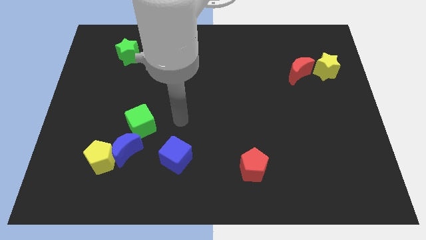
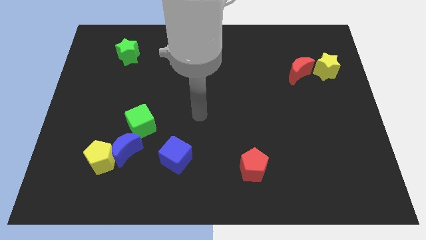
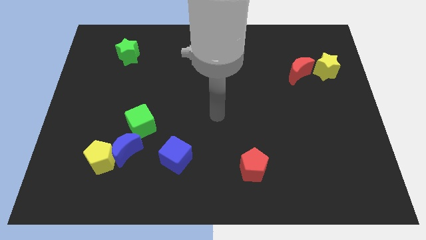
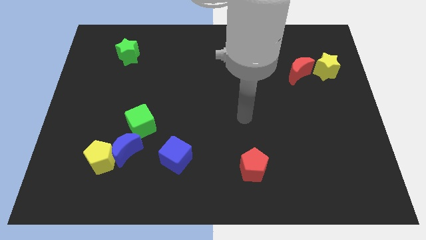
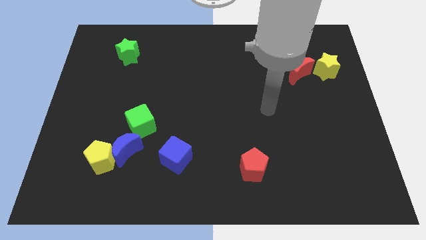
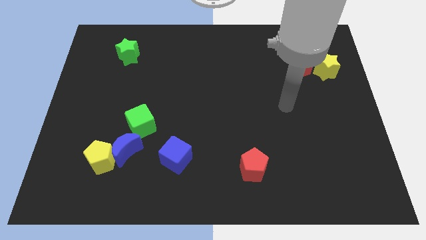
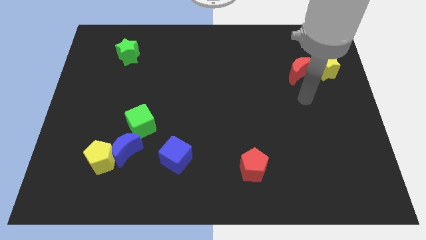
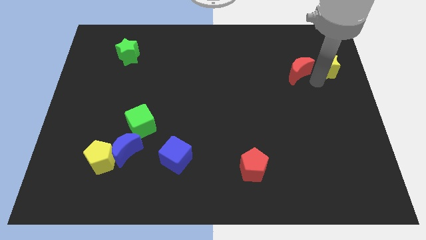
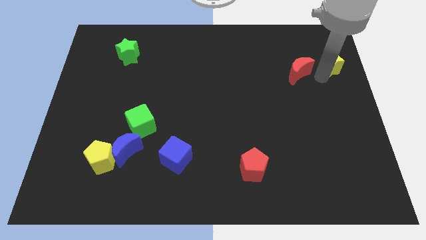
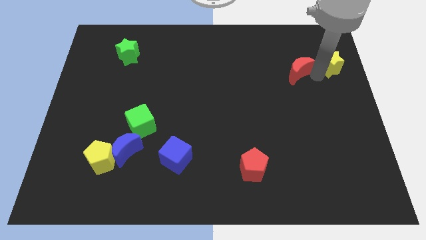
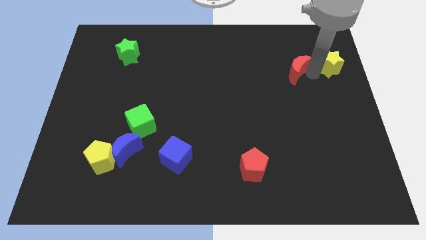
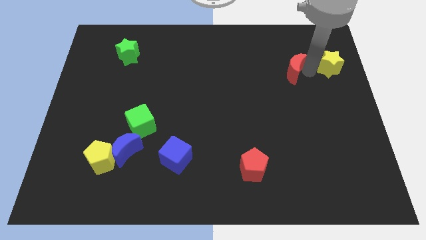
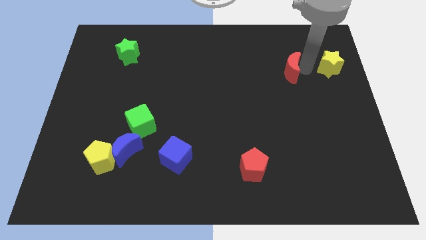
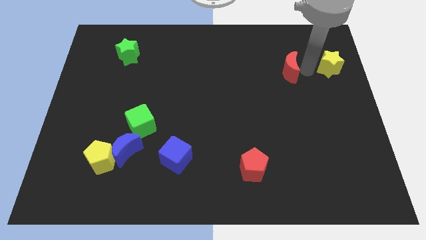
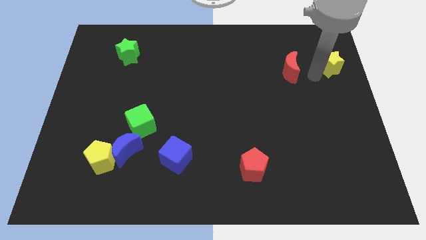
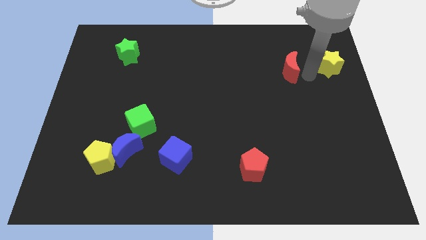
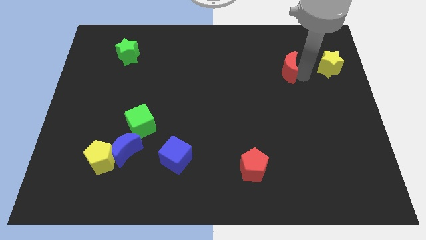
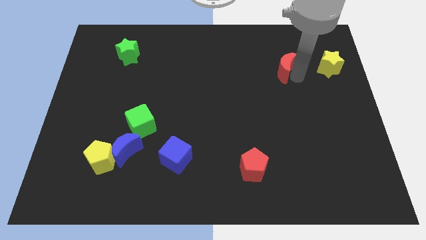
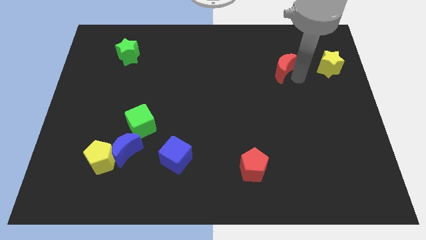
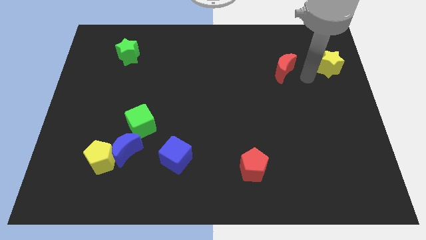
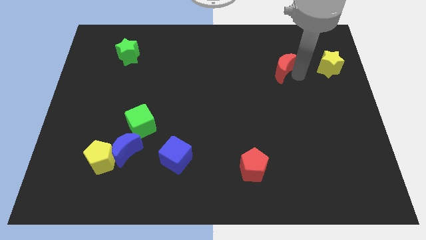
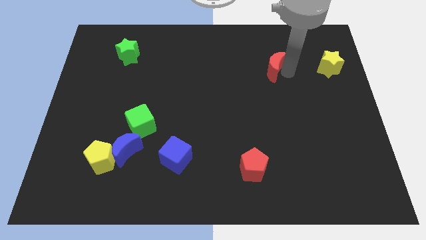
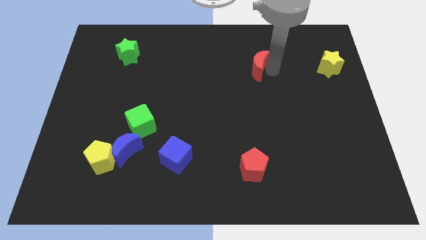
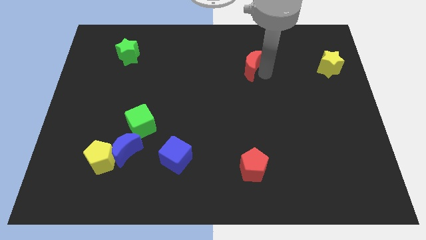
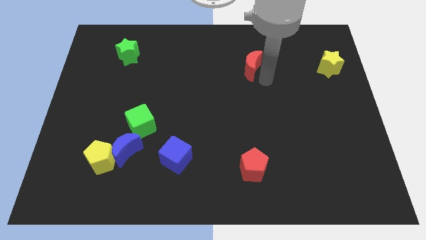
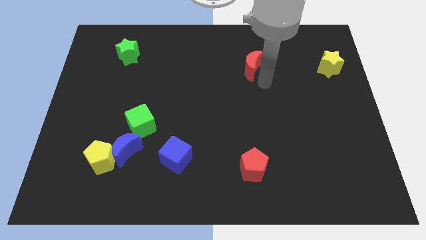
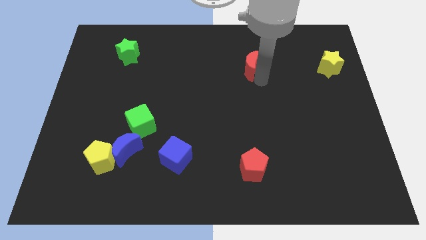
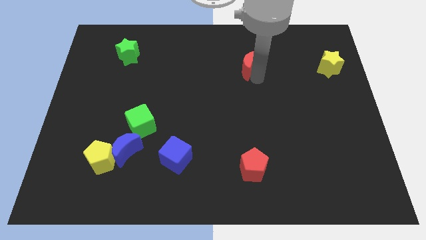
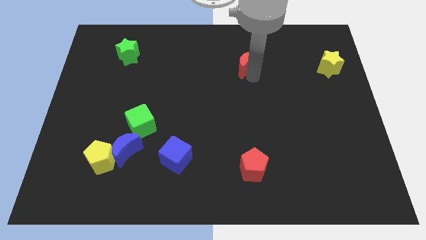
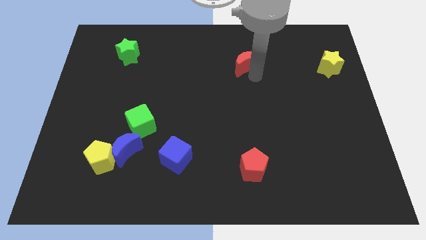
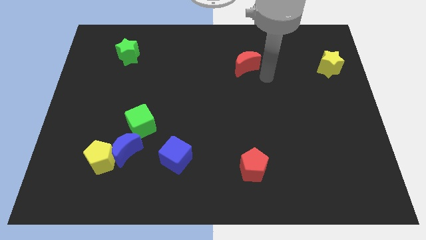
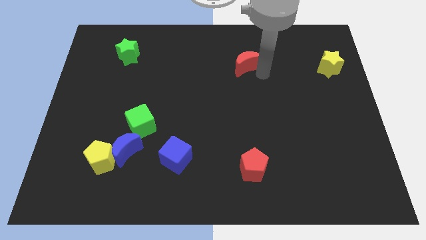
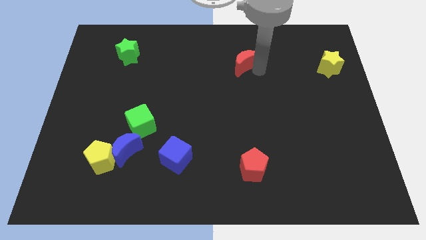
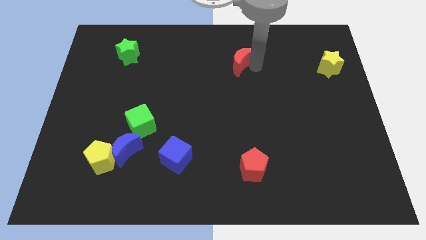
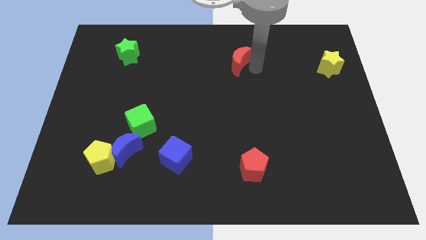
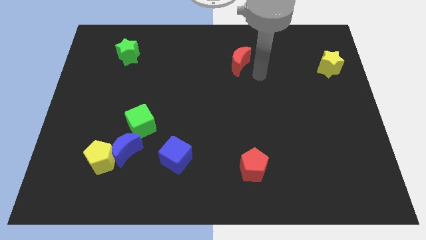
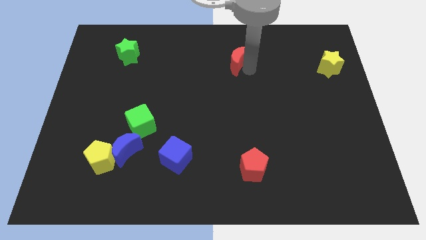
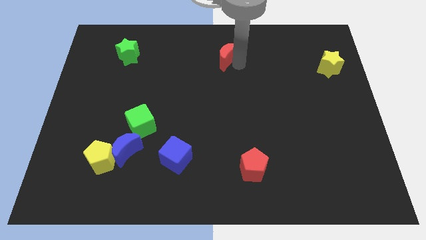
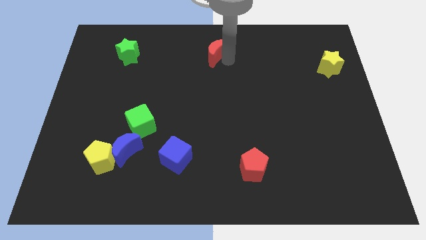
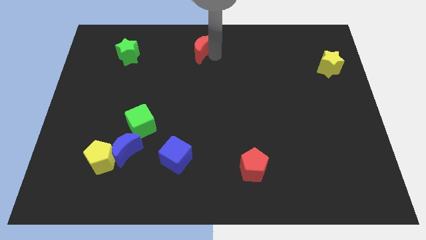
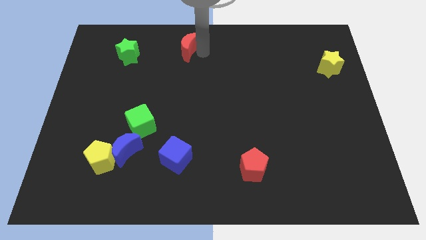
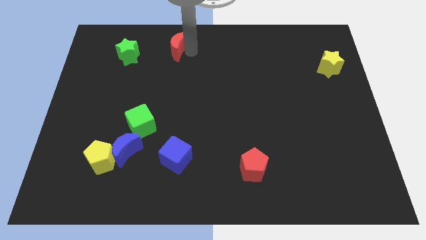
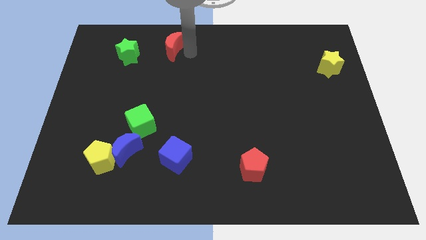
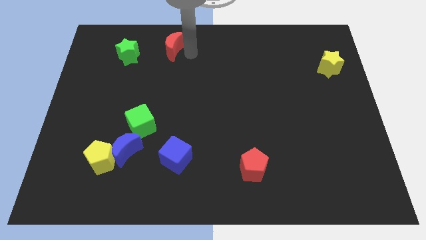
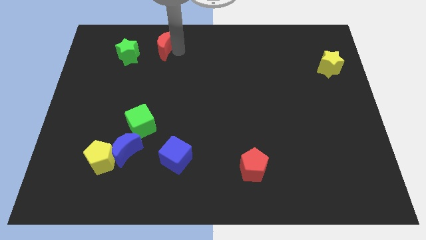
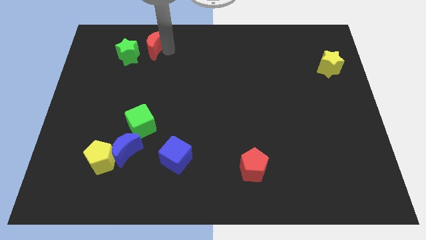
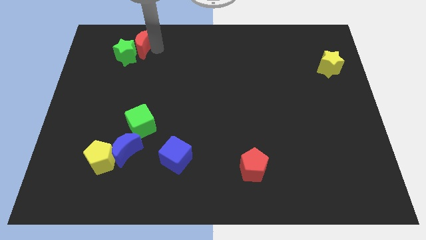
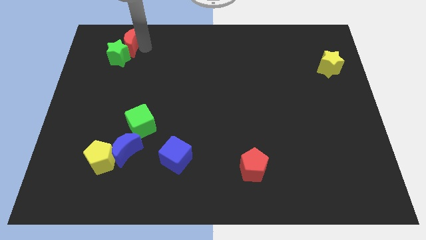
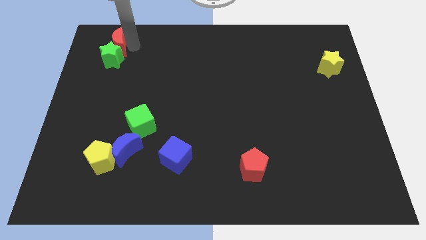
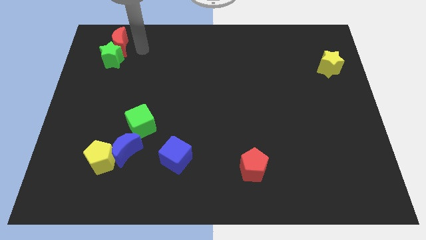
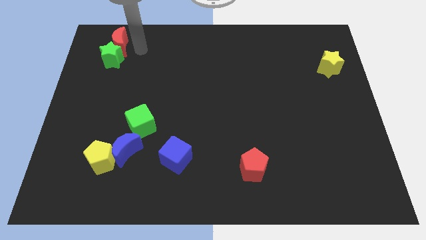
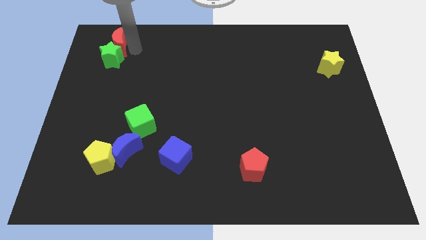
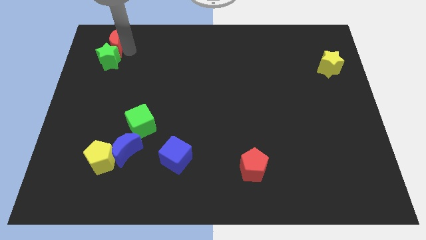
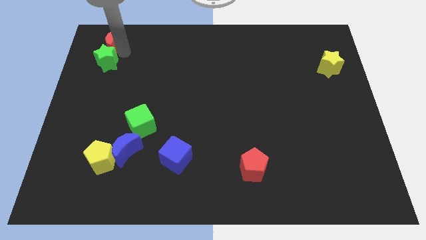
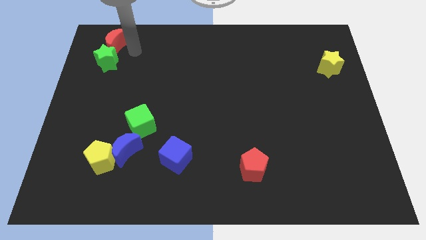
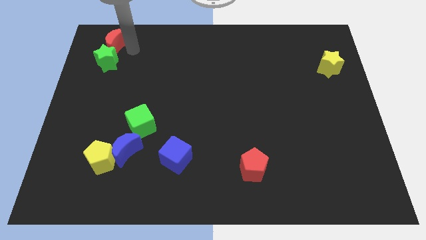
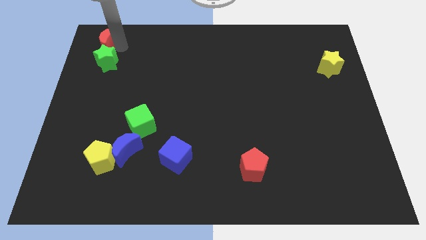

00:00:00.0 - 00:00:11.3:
move the red moon to the top left corner
